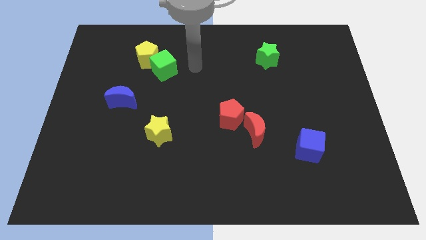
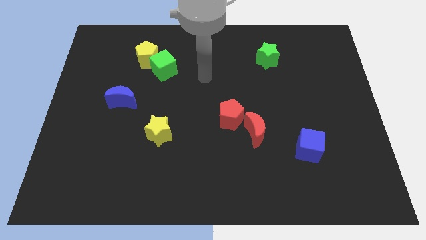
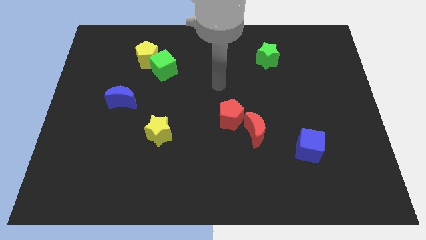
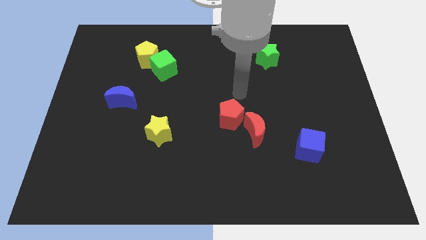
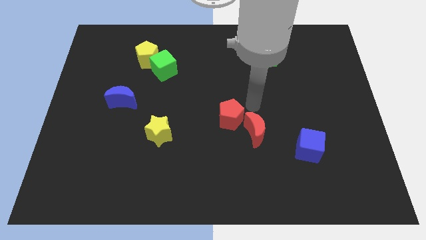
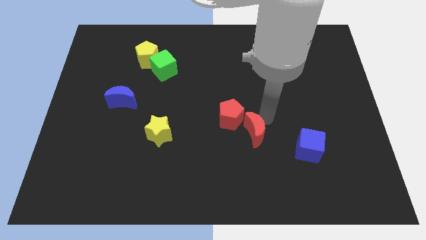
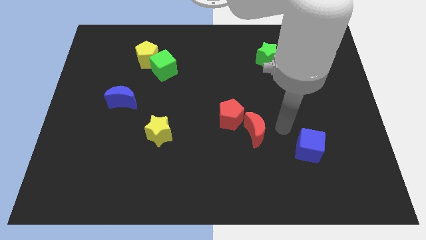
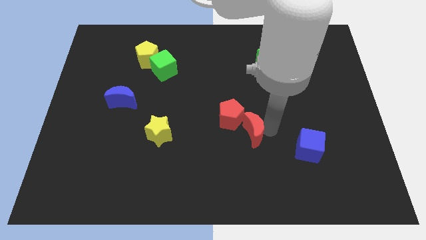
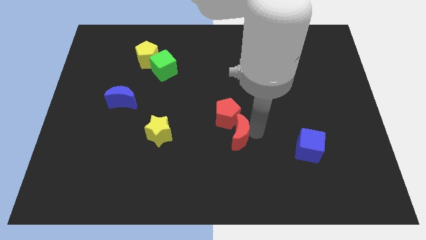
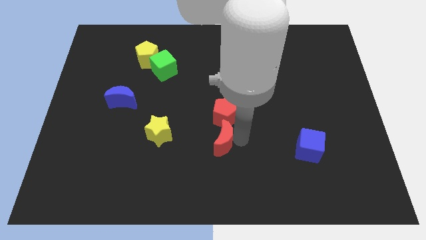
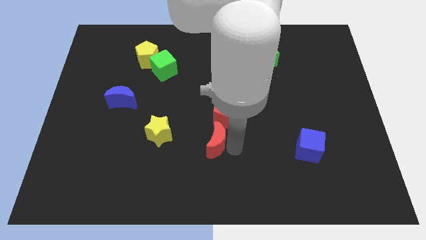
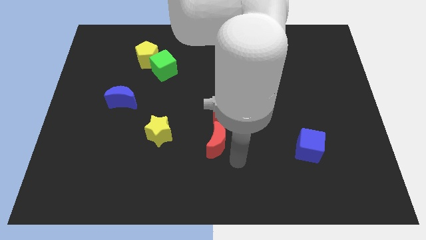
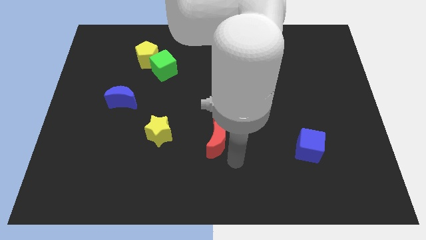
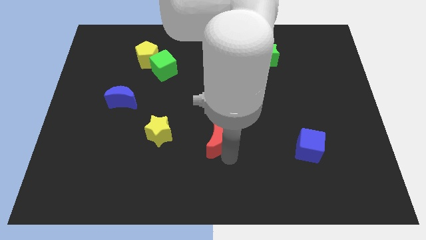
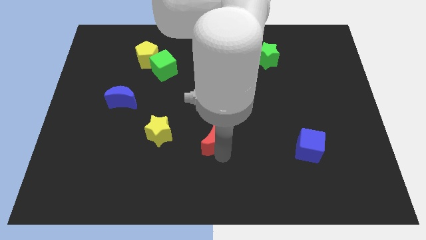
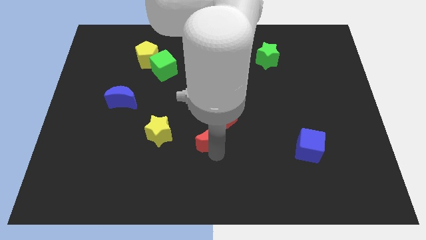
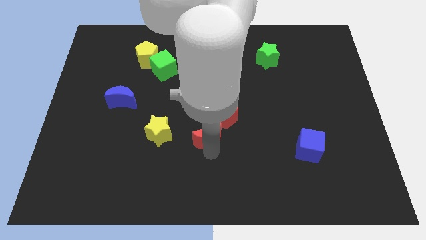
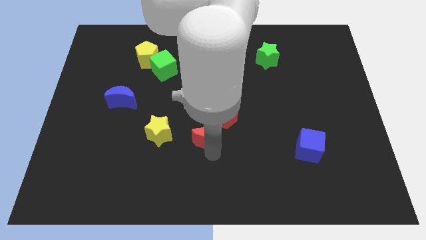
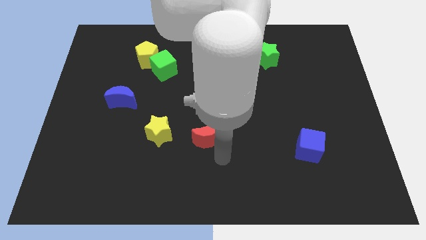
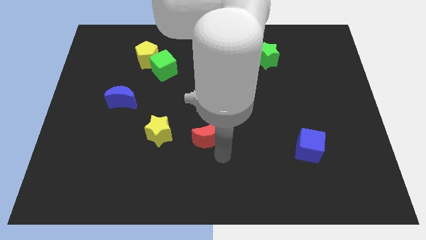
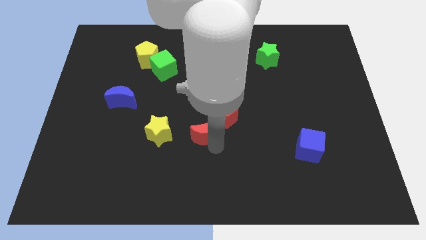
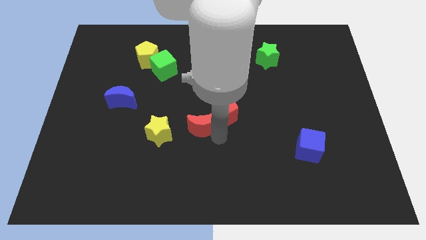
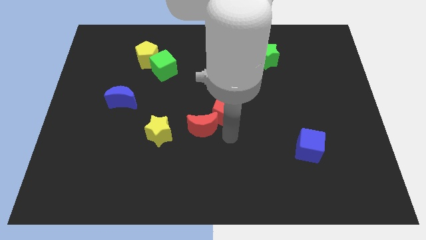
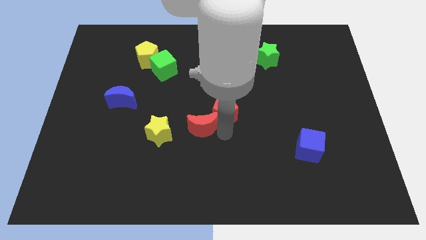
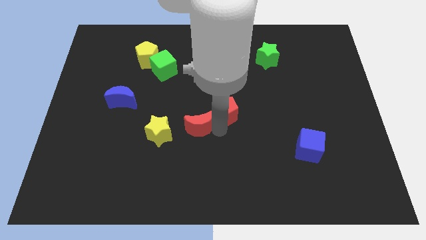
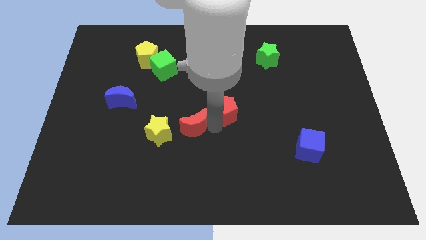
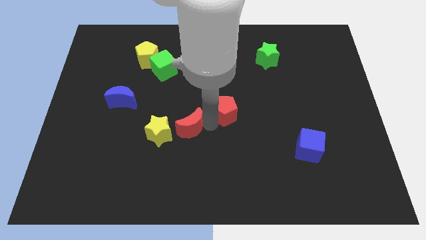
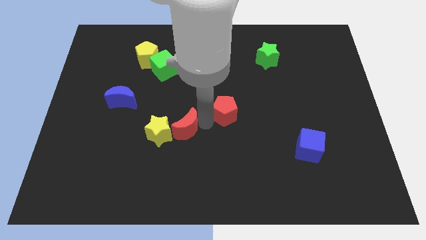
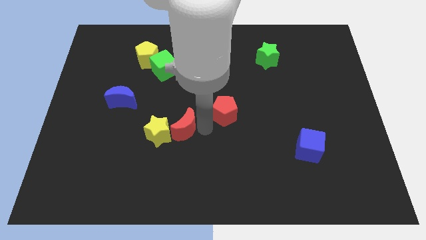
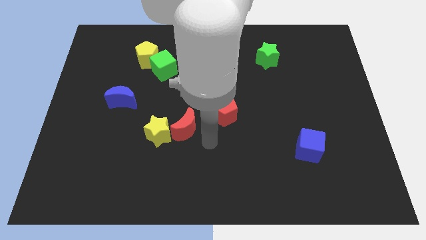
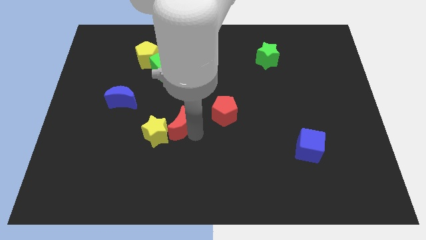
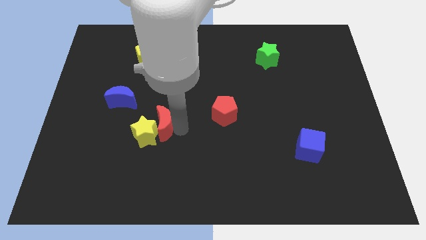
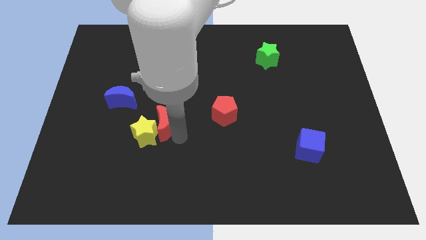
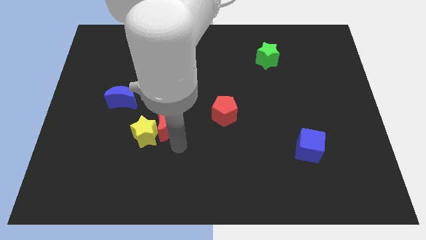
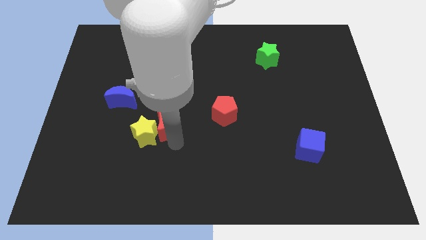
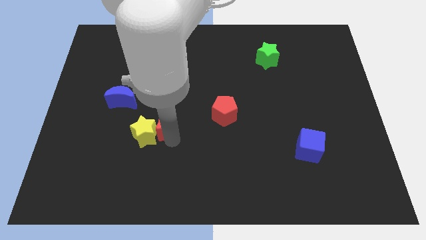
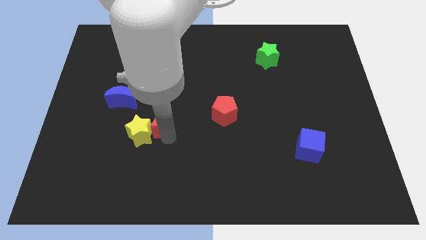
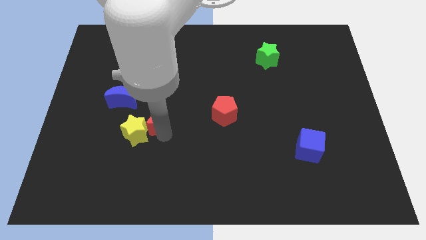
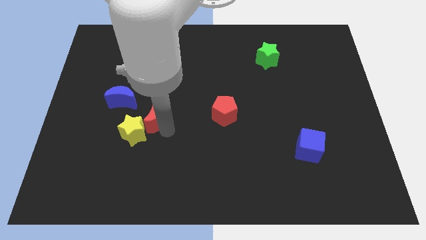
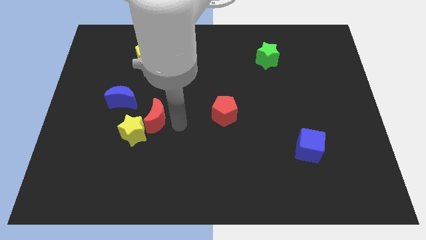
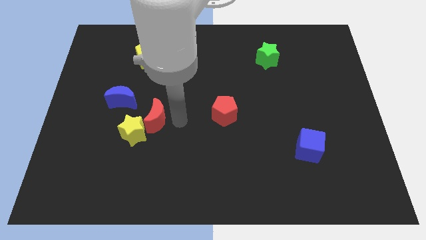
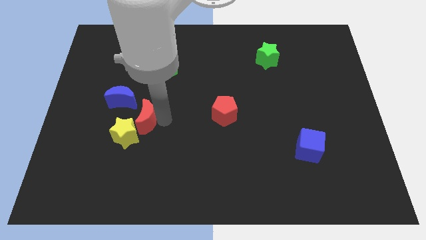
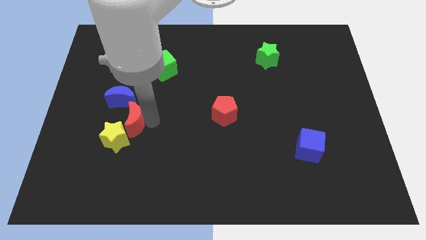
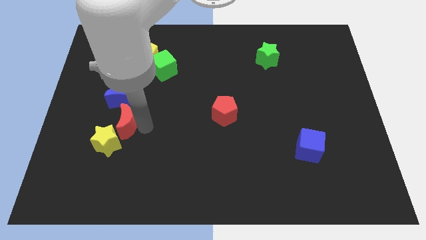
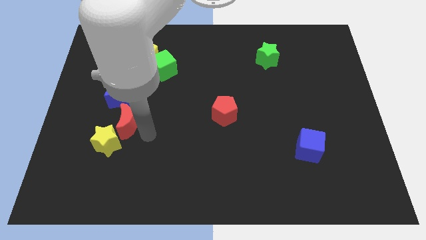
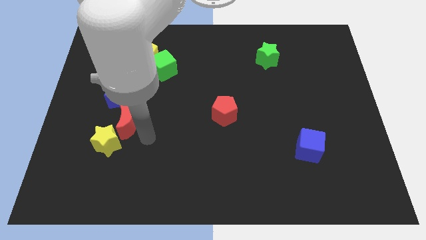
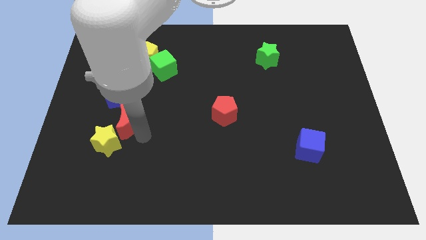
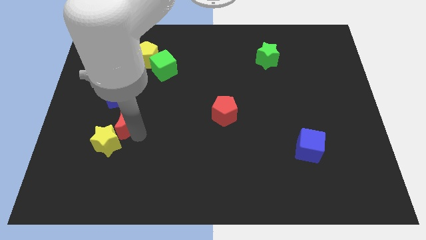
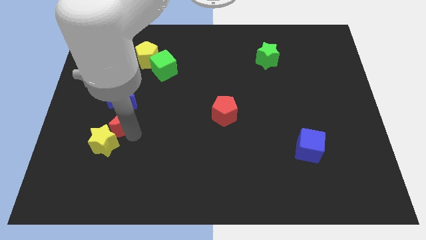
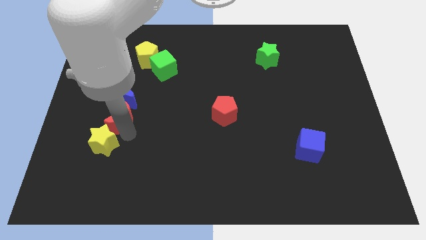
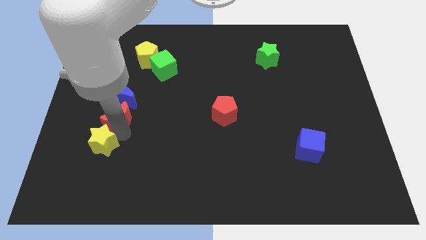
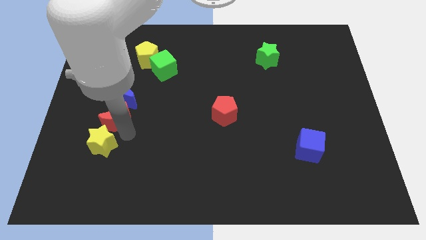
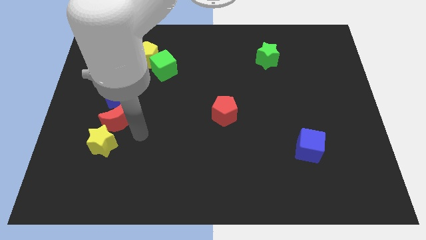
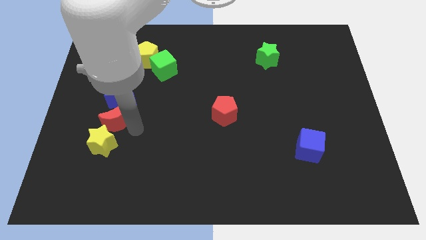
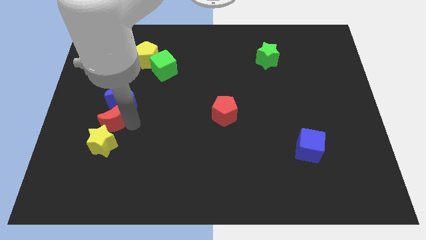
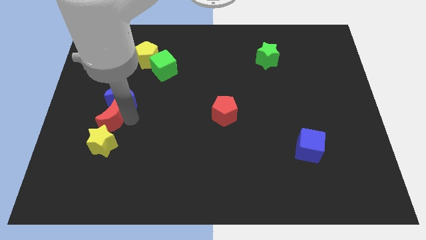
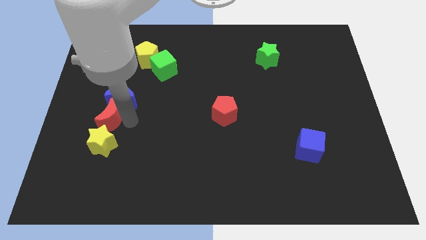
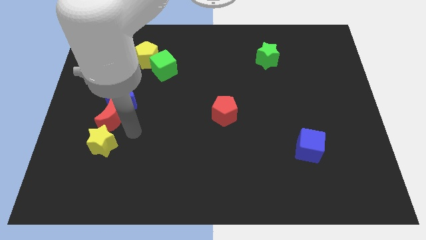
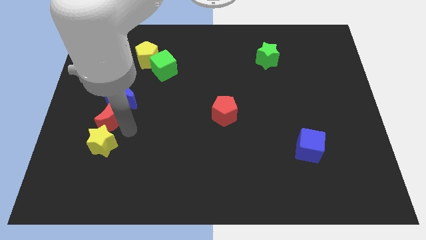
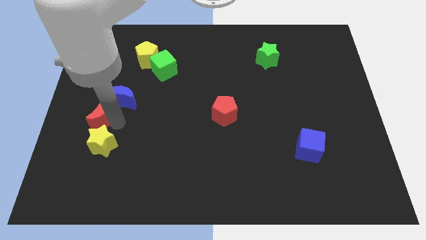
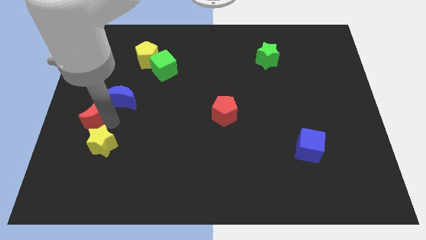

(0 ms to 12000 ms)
push the red moon to the left side

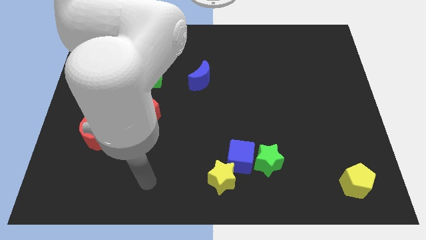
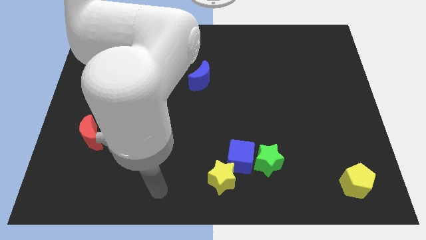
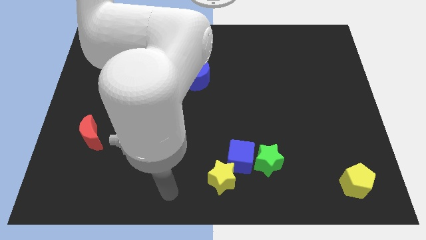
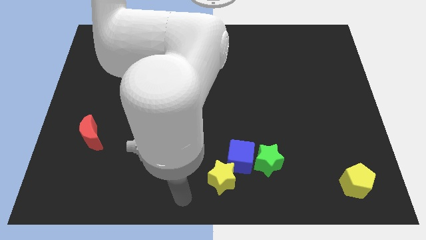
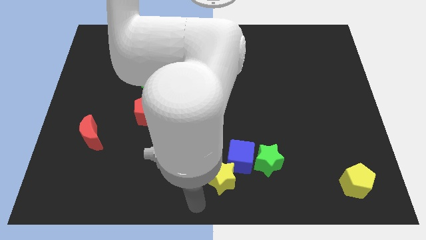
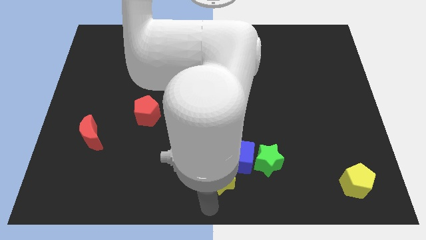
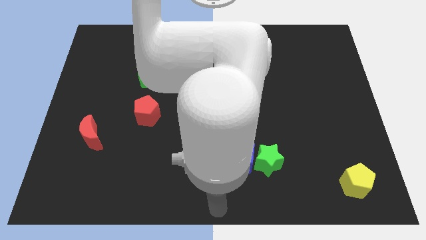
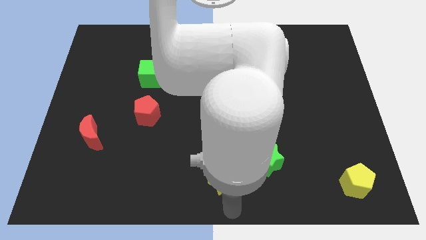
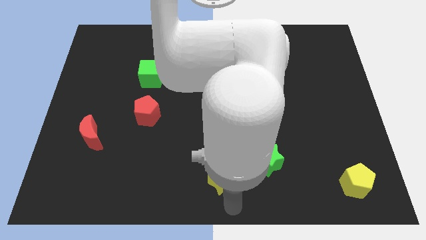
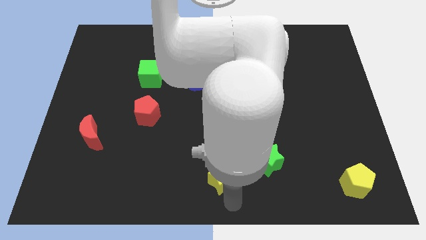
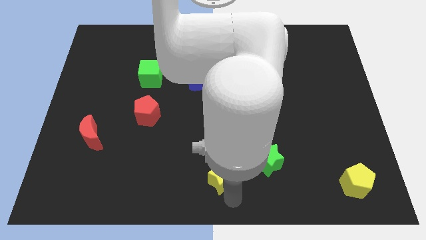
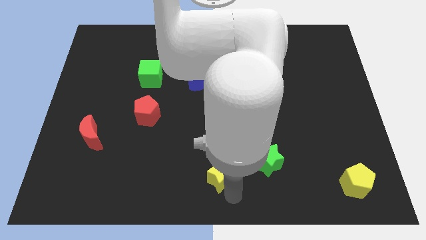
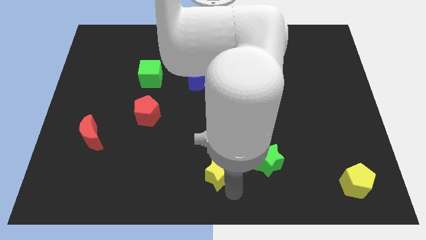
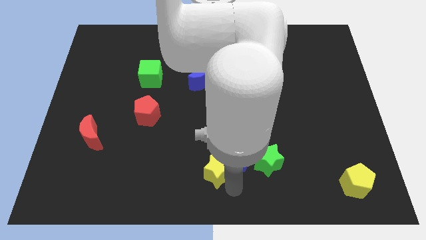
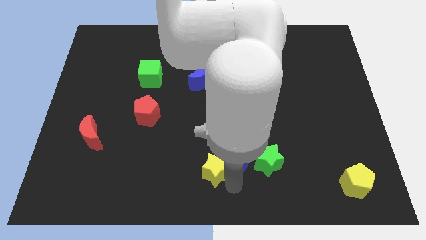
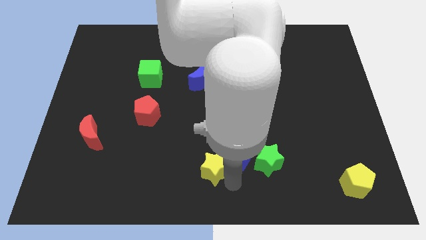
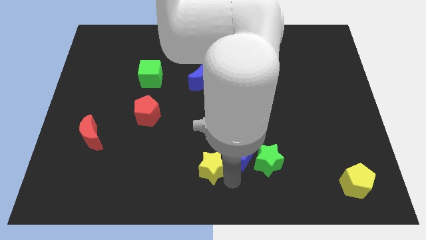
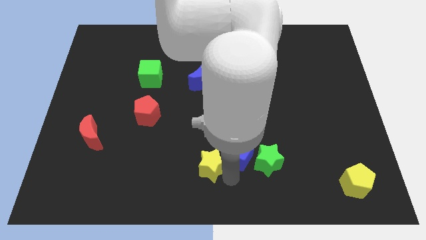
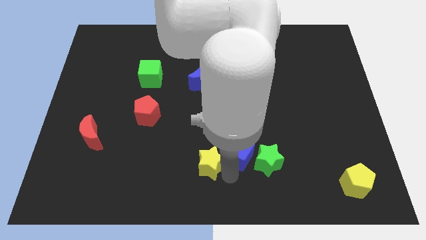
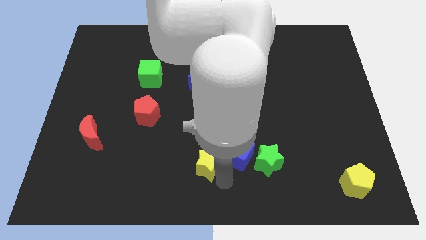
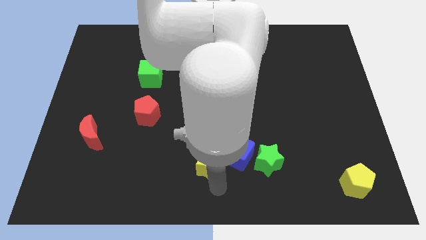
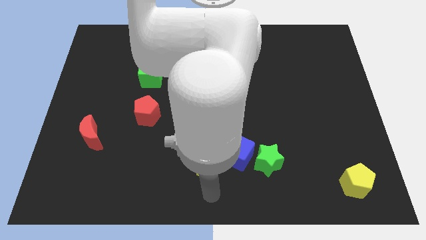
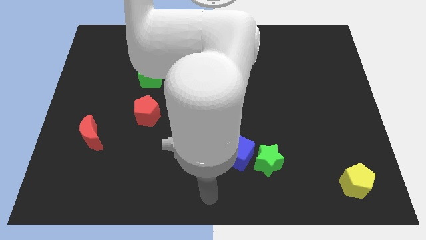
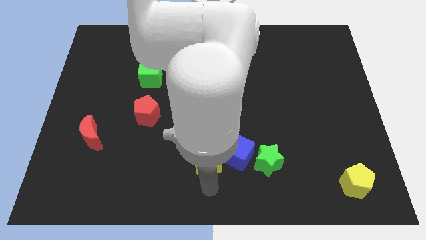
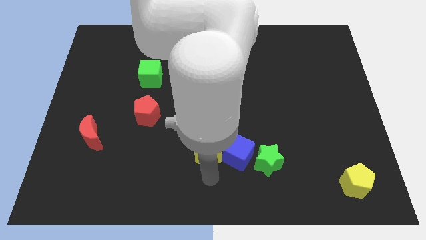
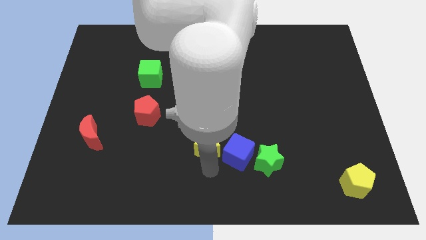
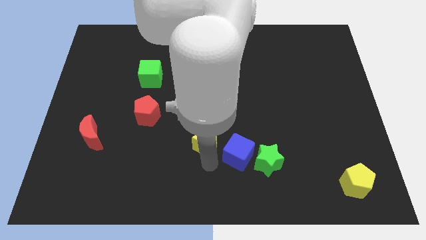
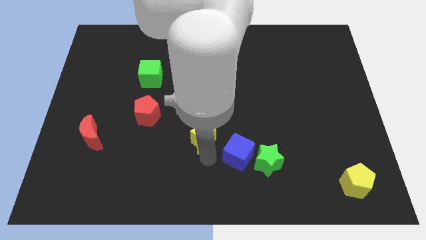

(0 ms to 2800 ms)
slide the yellow star to the center of the board
